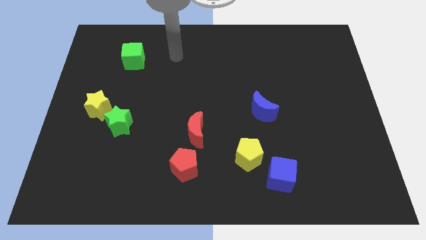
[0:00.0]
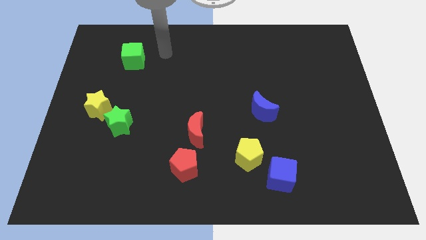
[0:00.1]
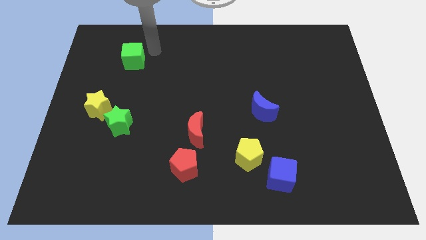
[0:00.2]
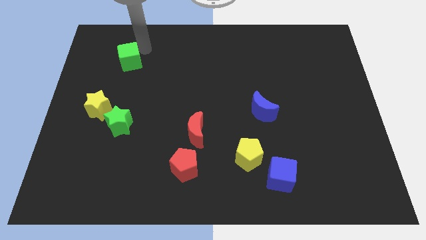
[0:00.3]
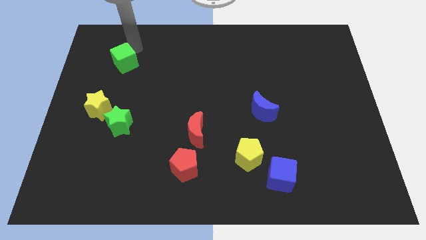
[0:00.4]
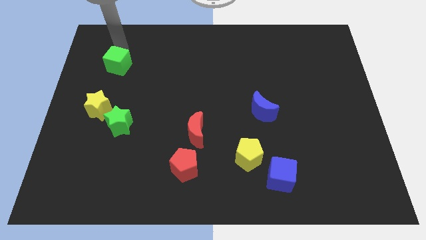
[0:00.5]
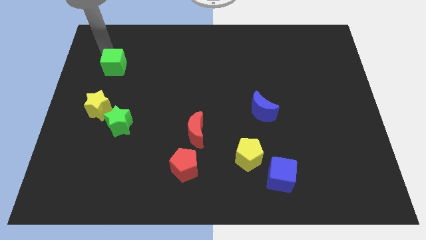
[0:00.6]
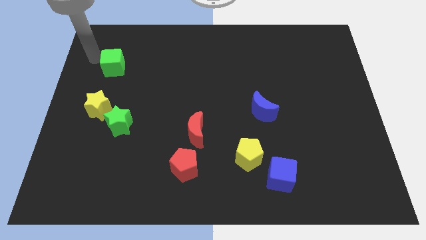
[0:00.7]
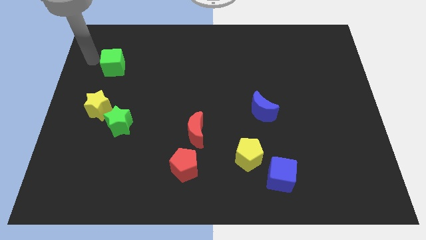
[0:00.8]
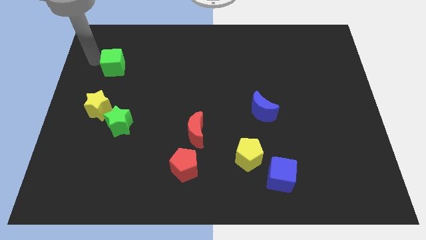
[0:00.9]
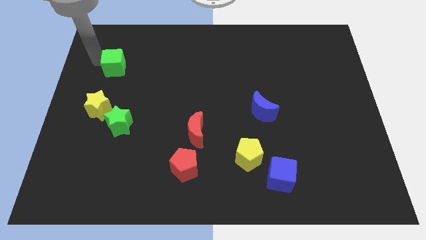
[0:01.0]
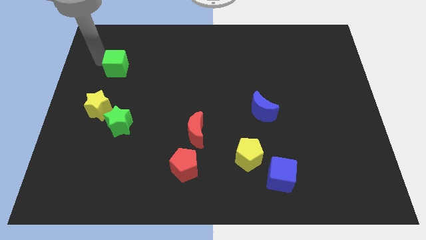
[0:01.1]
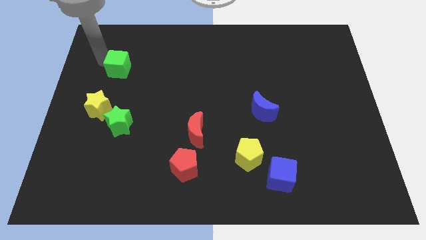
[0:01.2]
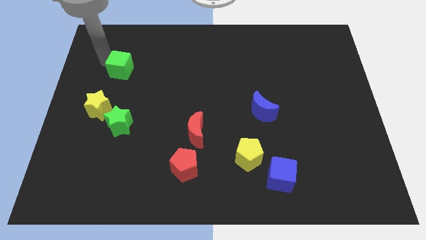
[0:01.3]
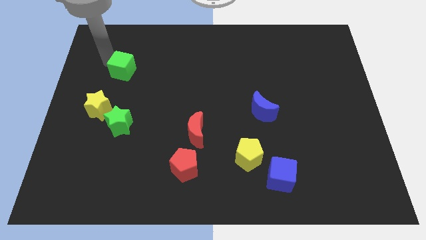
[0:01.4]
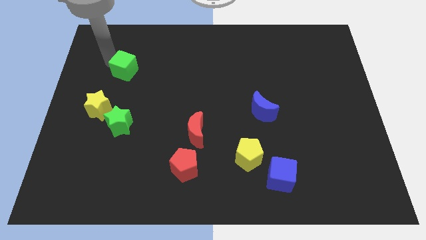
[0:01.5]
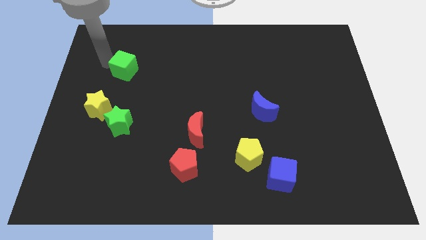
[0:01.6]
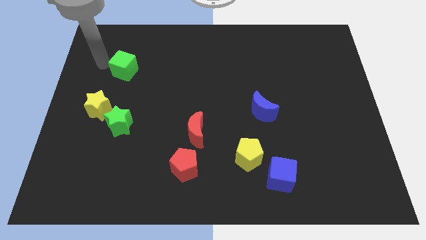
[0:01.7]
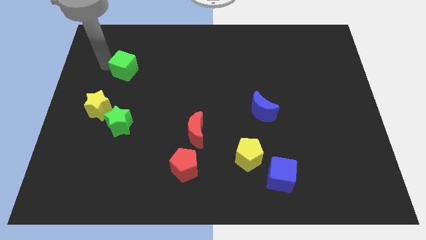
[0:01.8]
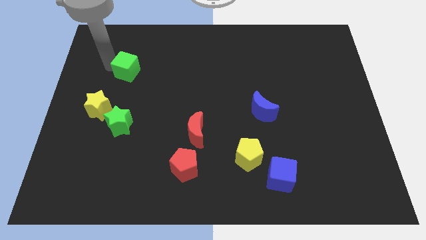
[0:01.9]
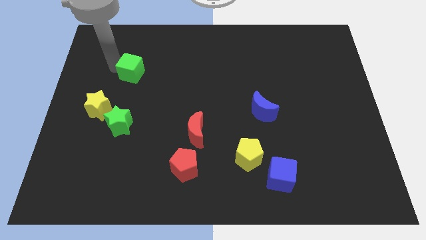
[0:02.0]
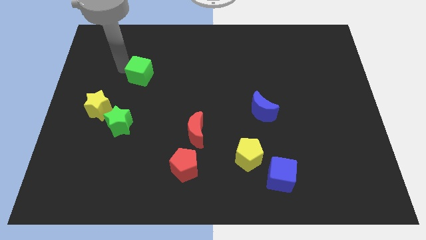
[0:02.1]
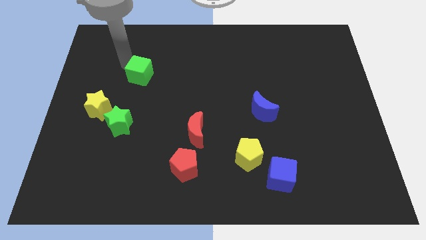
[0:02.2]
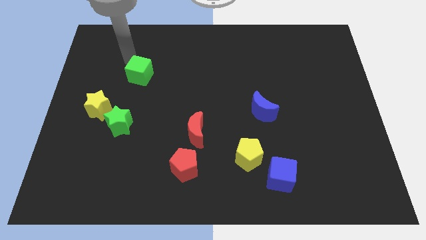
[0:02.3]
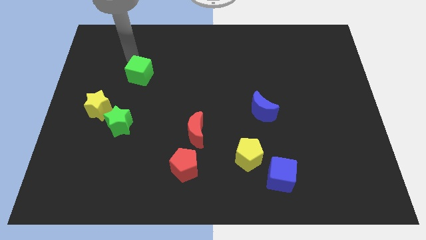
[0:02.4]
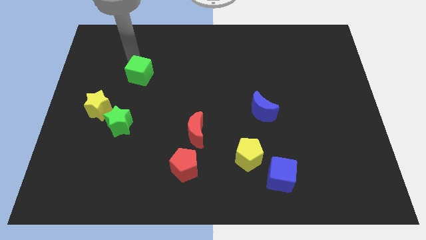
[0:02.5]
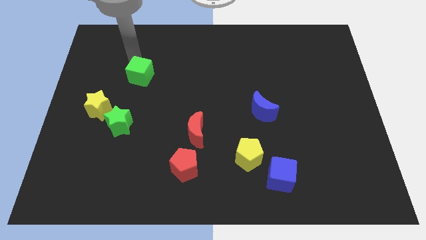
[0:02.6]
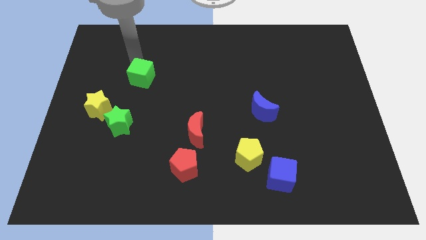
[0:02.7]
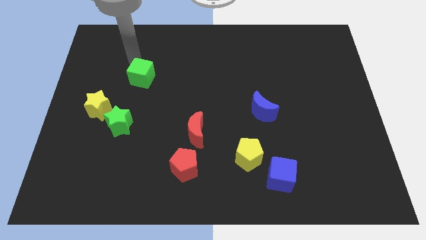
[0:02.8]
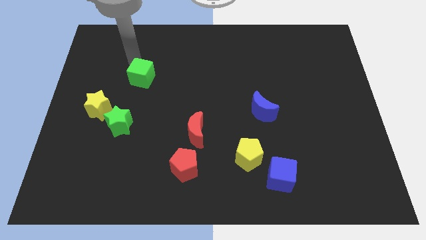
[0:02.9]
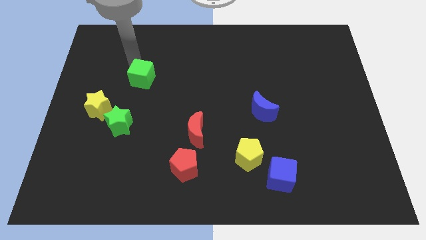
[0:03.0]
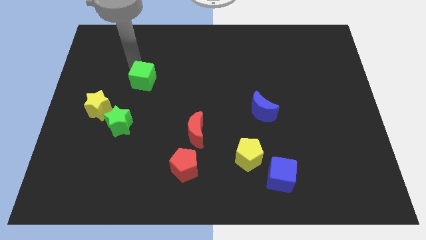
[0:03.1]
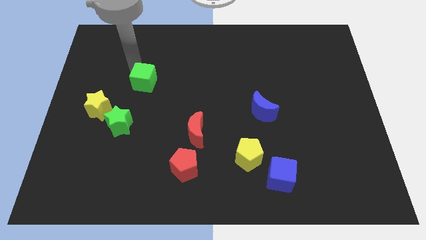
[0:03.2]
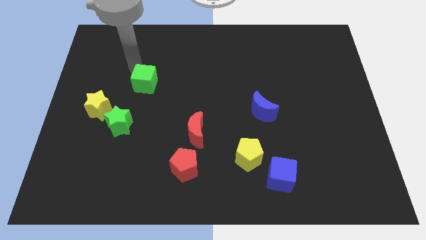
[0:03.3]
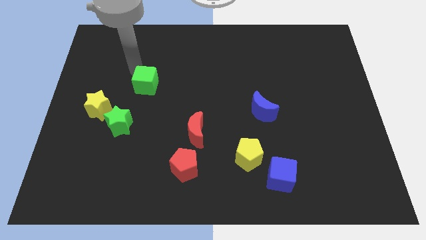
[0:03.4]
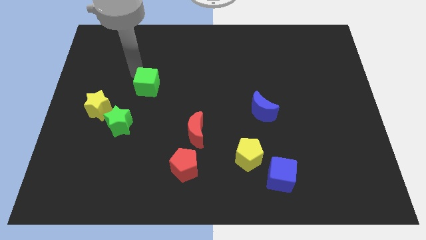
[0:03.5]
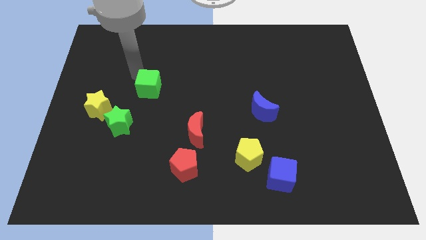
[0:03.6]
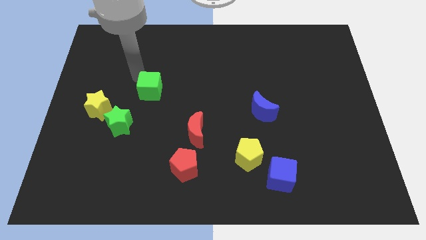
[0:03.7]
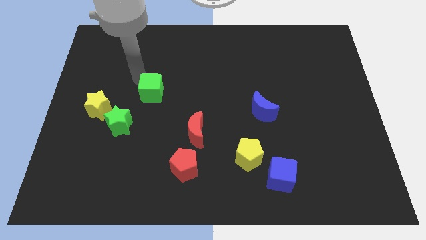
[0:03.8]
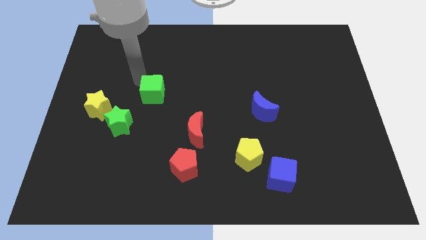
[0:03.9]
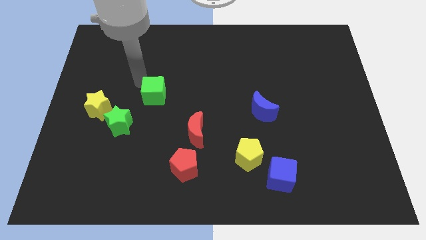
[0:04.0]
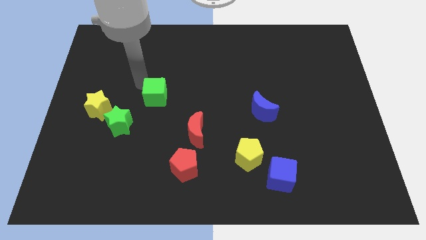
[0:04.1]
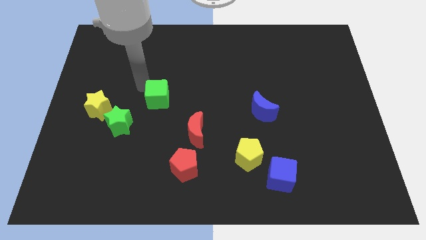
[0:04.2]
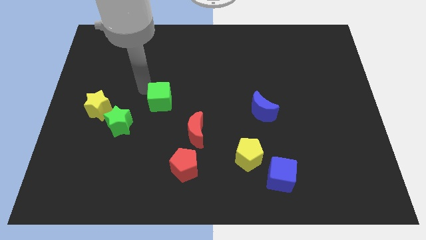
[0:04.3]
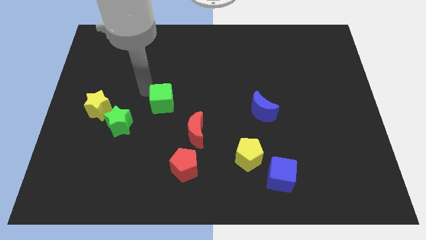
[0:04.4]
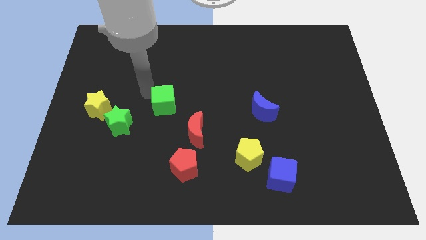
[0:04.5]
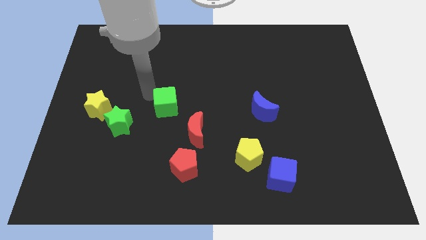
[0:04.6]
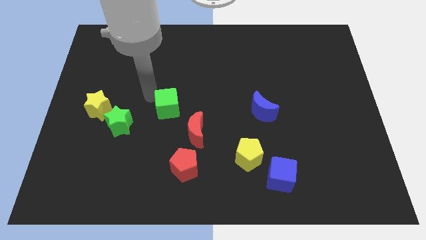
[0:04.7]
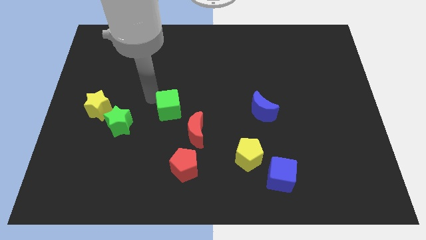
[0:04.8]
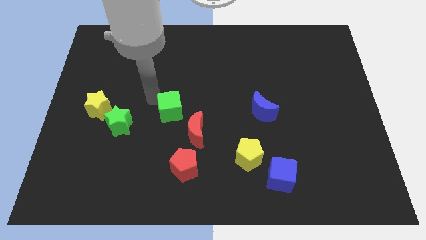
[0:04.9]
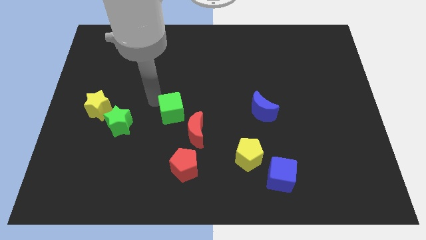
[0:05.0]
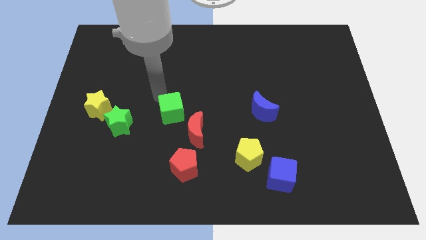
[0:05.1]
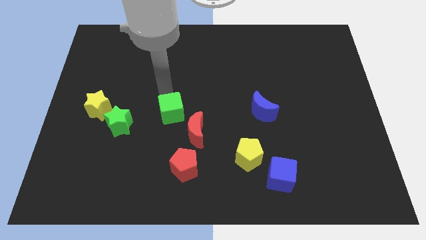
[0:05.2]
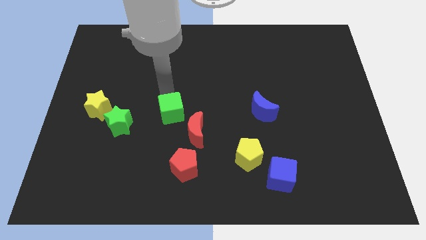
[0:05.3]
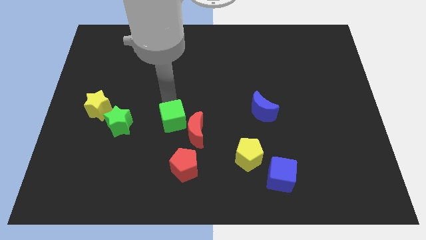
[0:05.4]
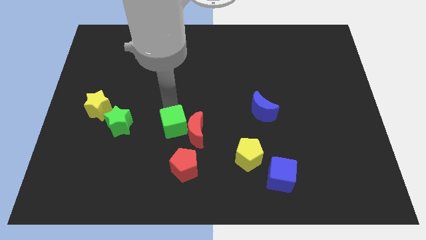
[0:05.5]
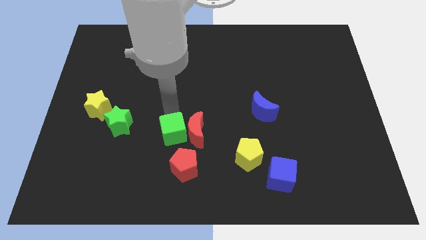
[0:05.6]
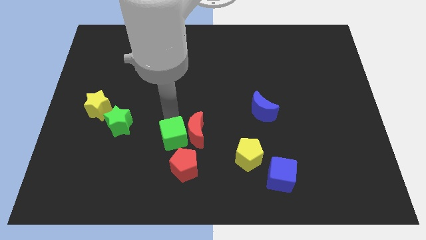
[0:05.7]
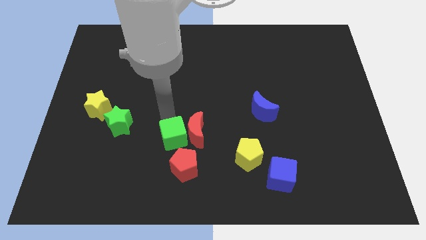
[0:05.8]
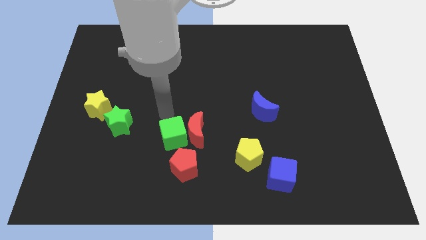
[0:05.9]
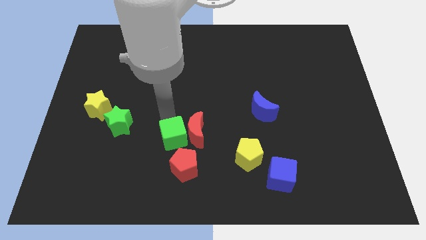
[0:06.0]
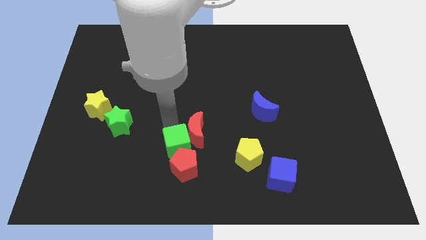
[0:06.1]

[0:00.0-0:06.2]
slide the green cube next to the red pentagon

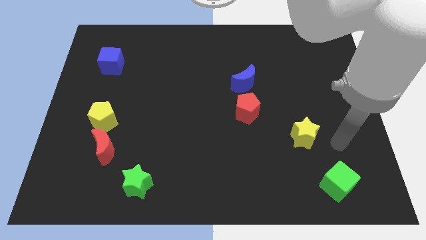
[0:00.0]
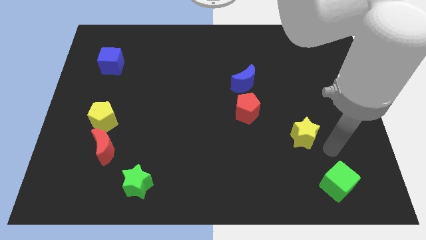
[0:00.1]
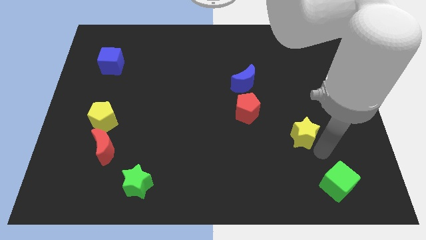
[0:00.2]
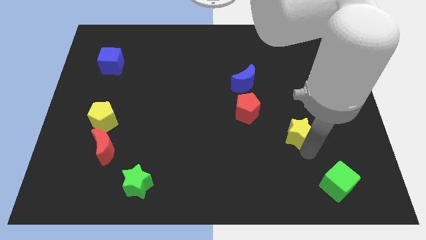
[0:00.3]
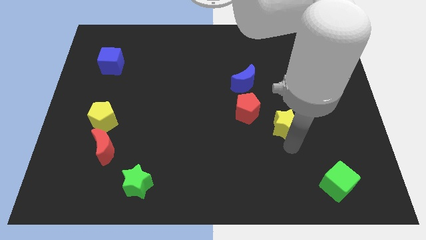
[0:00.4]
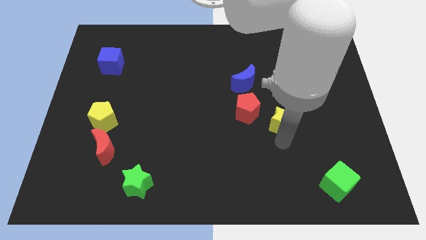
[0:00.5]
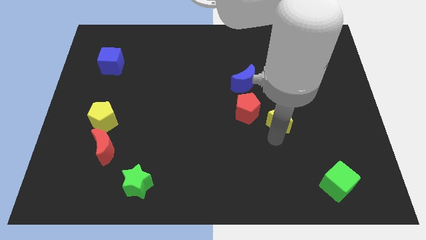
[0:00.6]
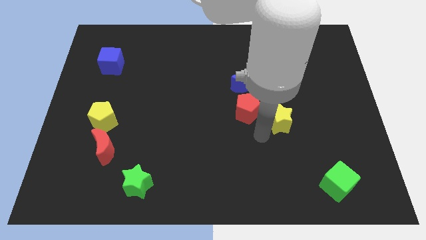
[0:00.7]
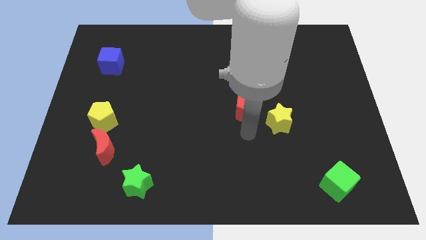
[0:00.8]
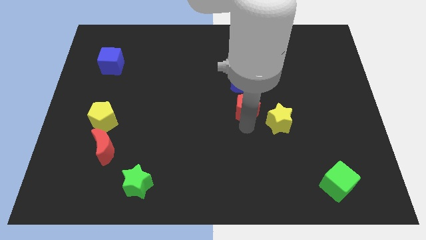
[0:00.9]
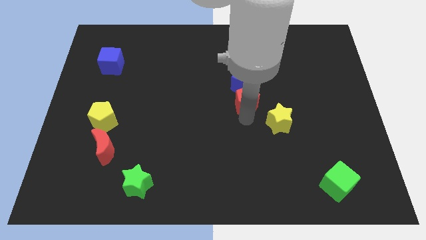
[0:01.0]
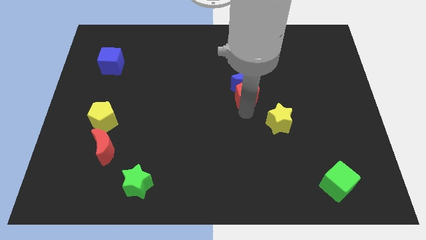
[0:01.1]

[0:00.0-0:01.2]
slide the red pentagon towards the blue moon
